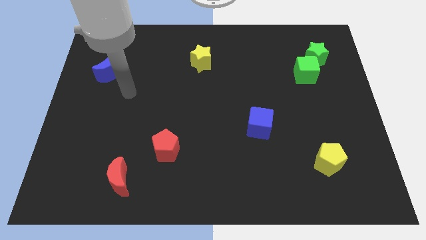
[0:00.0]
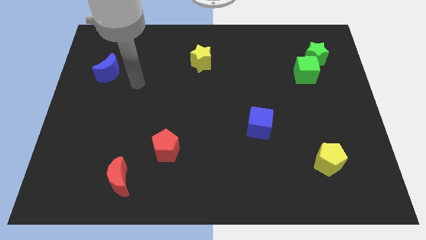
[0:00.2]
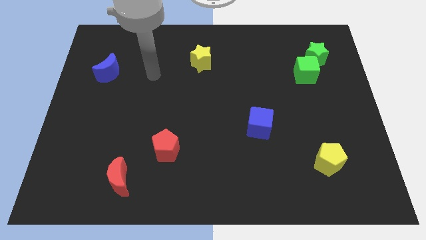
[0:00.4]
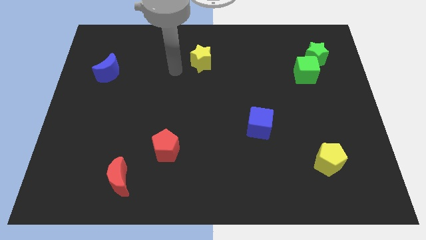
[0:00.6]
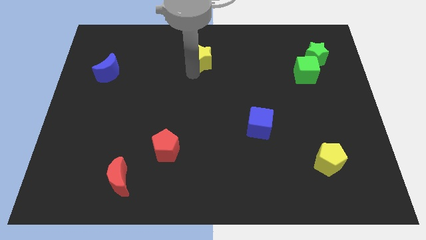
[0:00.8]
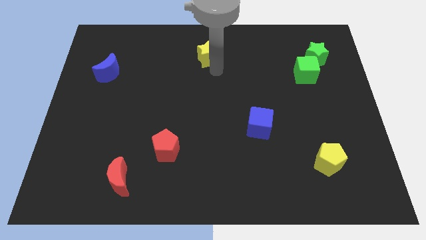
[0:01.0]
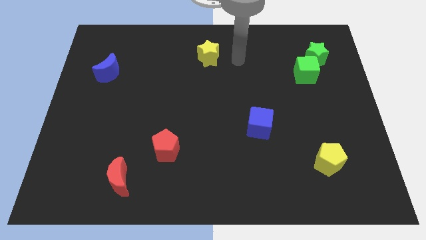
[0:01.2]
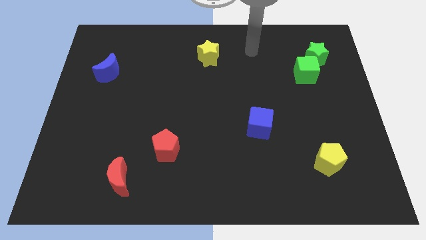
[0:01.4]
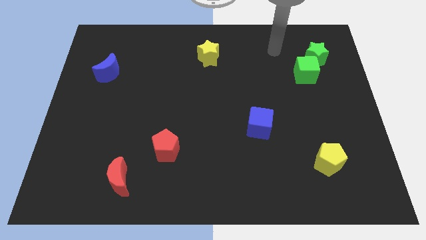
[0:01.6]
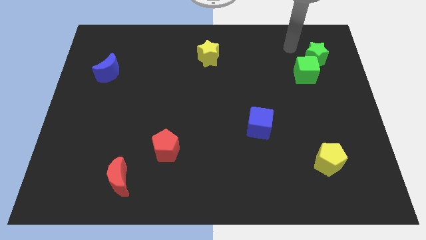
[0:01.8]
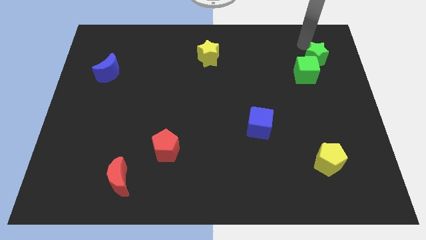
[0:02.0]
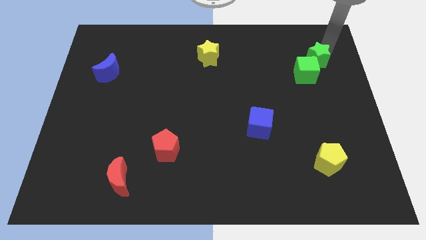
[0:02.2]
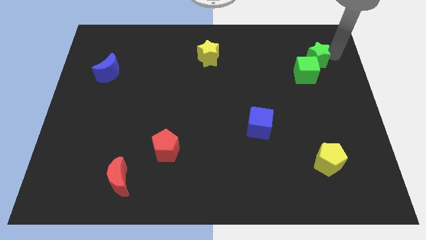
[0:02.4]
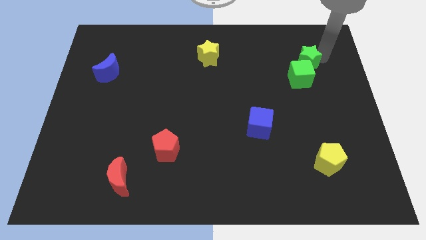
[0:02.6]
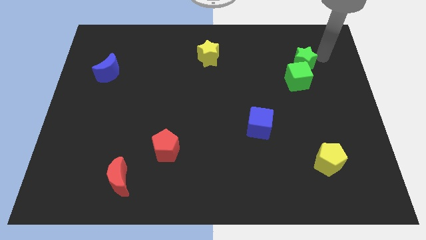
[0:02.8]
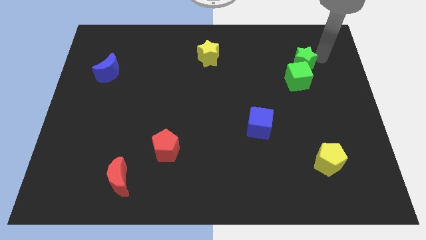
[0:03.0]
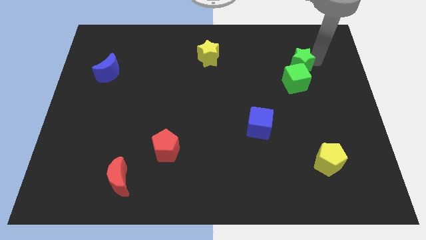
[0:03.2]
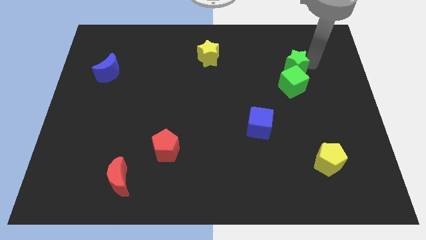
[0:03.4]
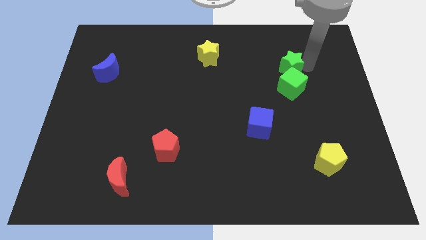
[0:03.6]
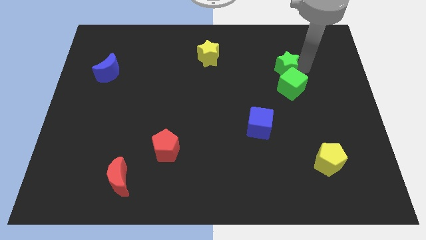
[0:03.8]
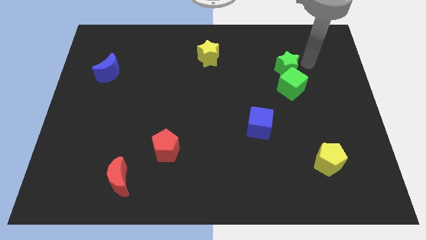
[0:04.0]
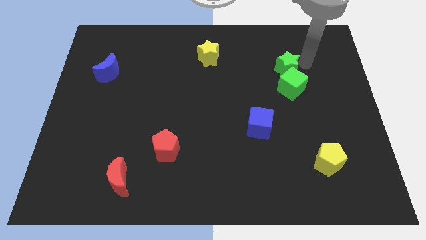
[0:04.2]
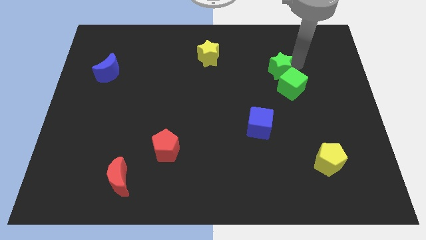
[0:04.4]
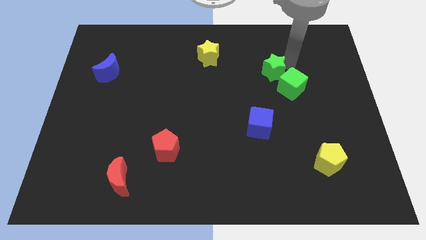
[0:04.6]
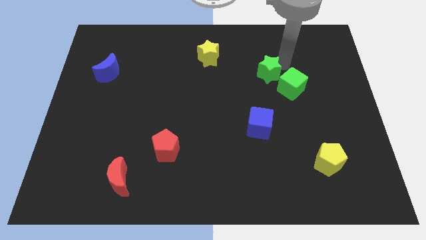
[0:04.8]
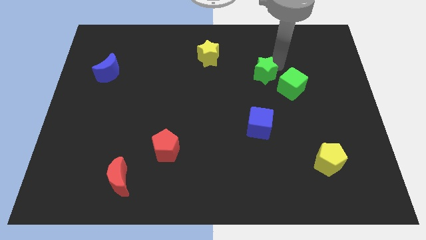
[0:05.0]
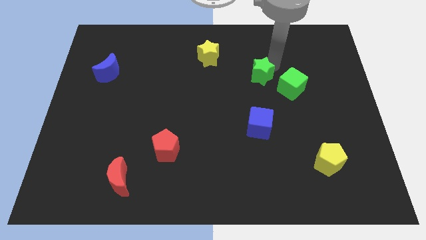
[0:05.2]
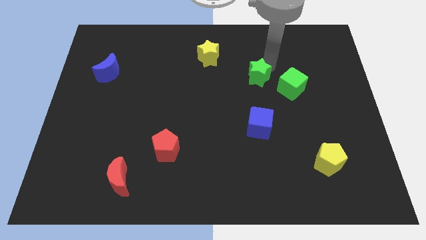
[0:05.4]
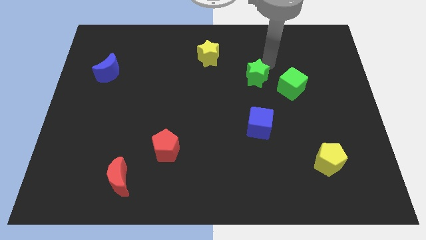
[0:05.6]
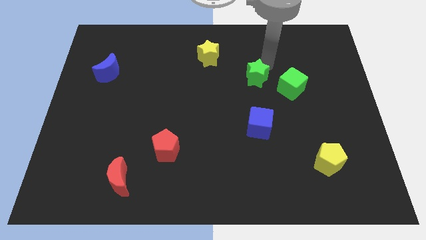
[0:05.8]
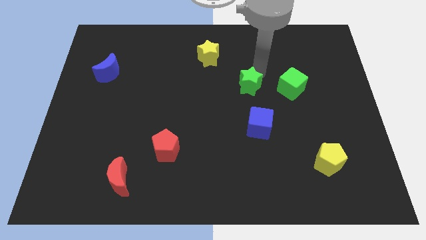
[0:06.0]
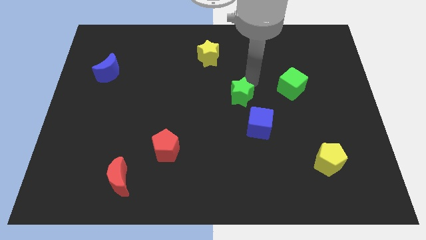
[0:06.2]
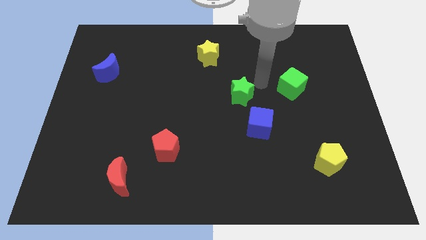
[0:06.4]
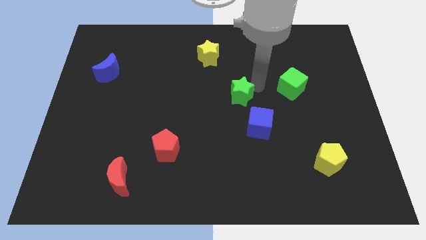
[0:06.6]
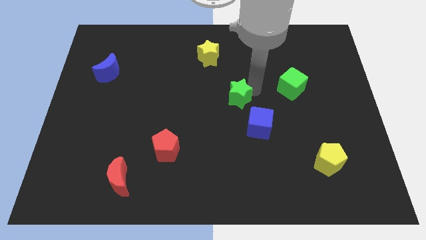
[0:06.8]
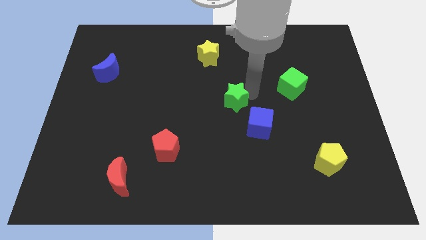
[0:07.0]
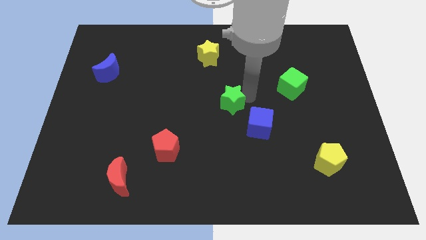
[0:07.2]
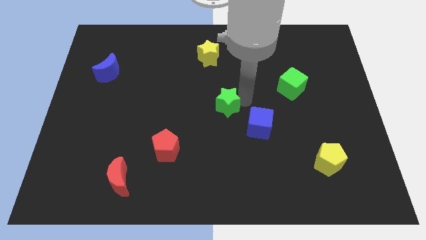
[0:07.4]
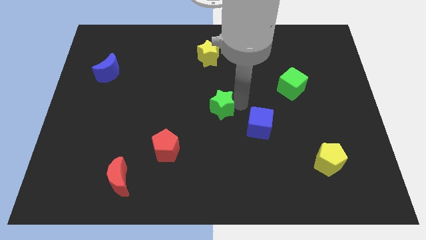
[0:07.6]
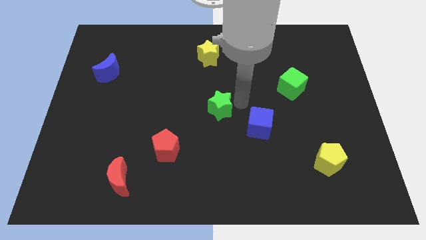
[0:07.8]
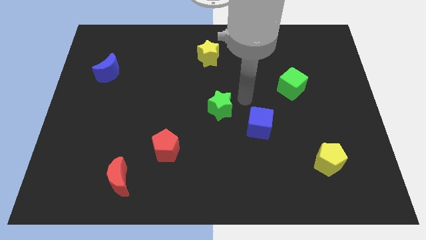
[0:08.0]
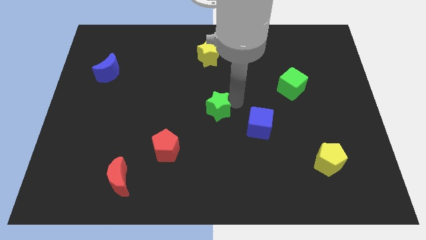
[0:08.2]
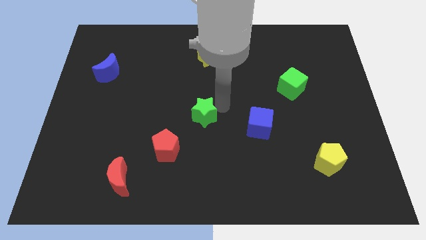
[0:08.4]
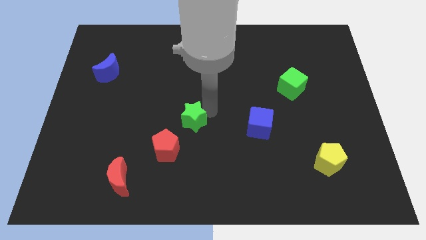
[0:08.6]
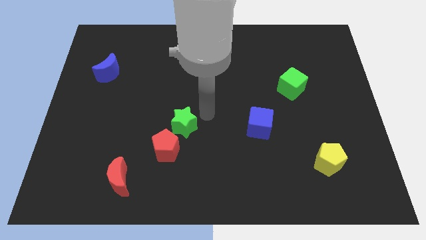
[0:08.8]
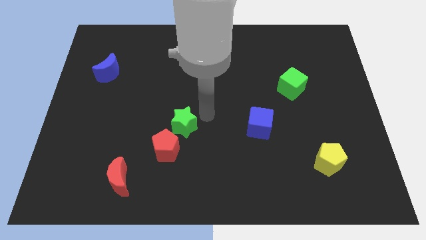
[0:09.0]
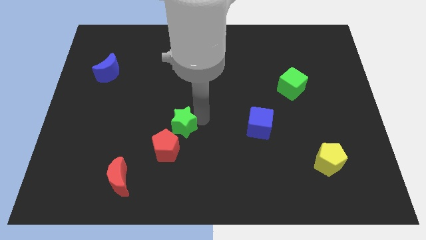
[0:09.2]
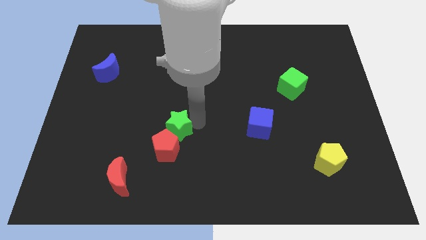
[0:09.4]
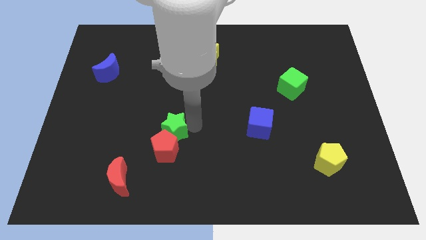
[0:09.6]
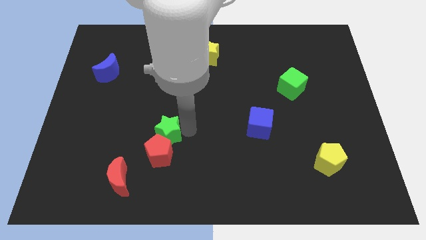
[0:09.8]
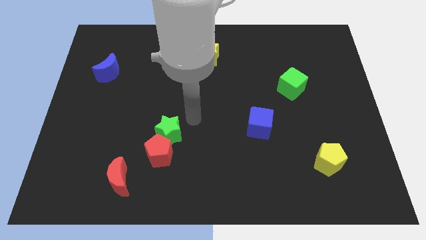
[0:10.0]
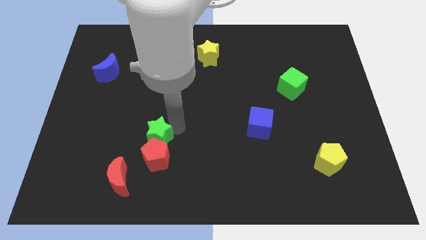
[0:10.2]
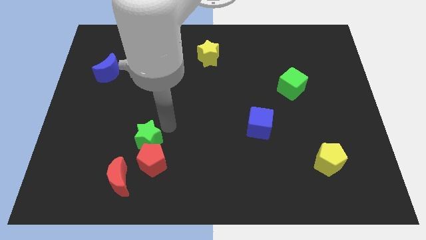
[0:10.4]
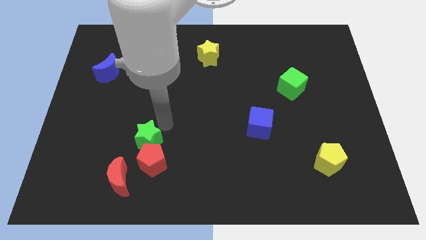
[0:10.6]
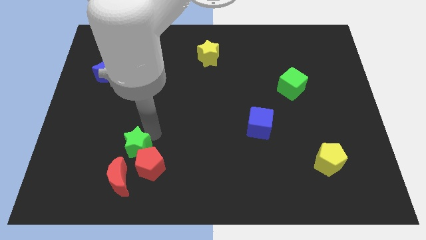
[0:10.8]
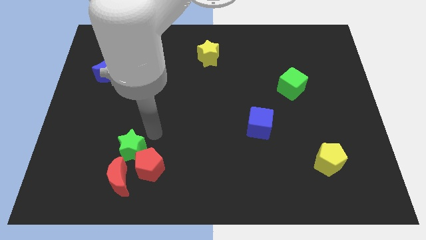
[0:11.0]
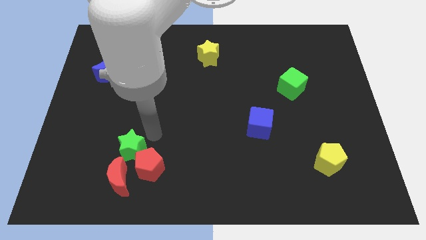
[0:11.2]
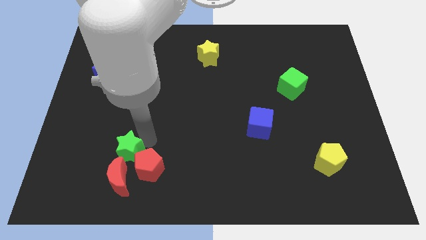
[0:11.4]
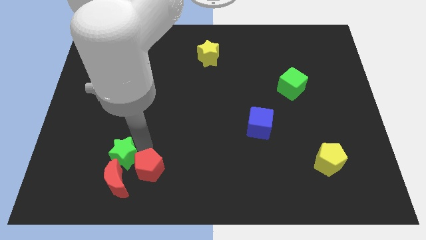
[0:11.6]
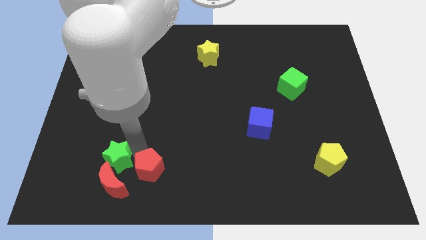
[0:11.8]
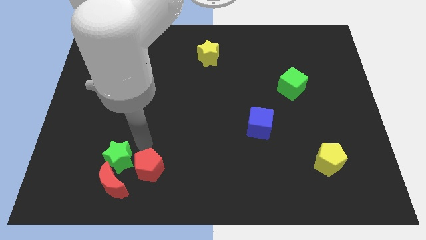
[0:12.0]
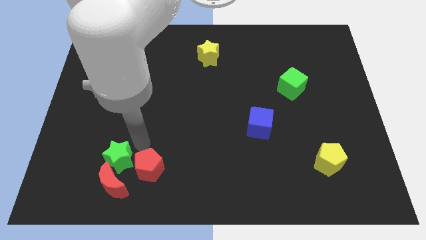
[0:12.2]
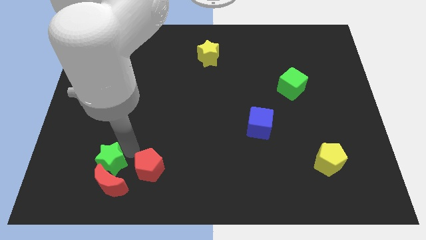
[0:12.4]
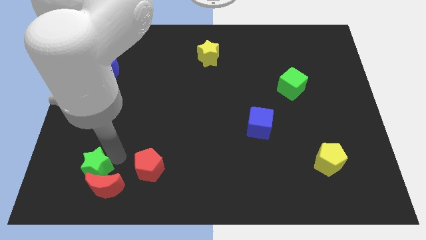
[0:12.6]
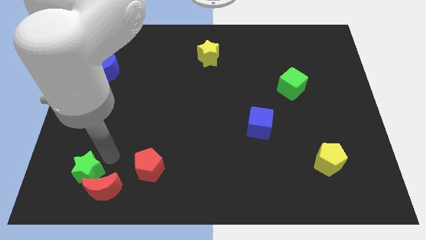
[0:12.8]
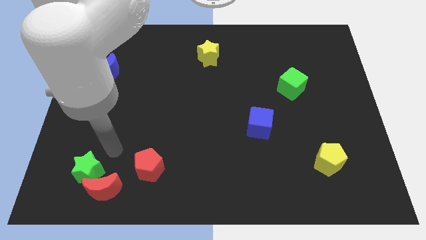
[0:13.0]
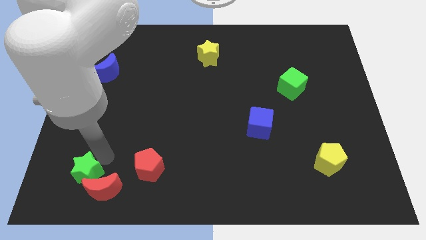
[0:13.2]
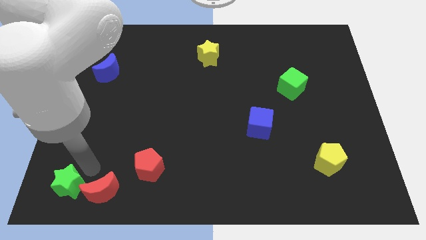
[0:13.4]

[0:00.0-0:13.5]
move the green star to the bottom left of the board
